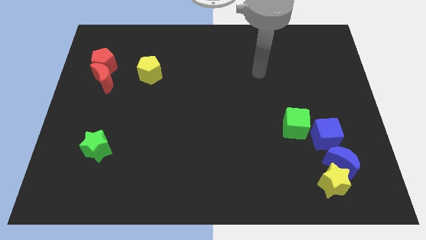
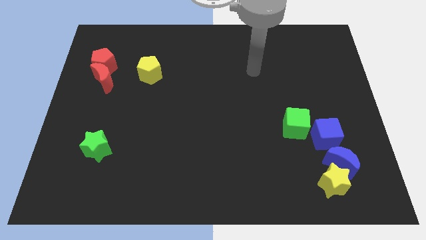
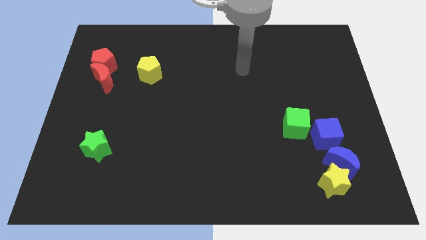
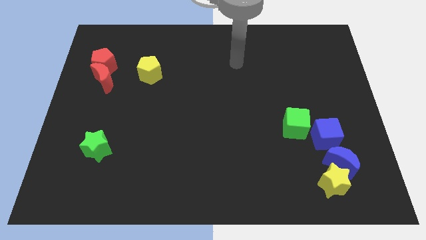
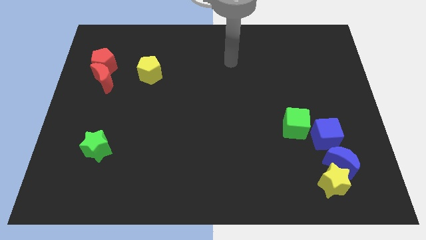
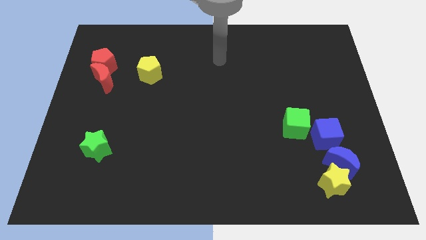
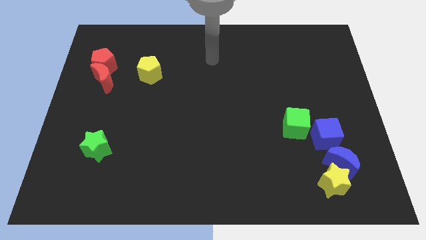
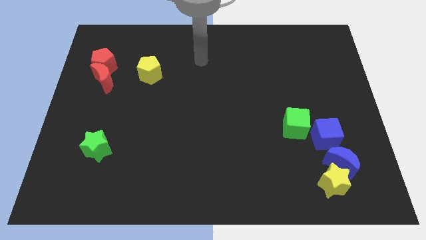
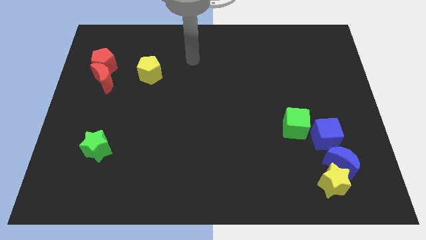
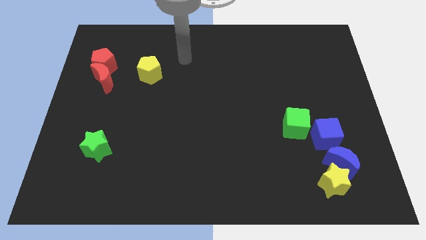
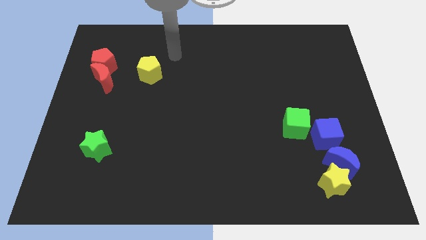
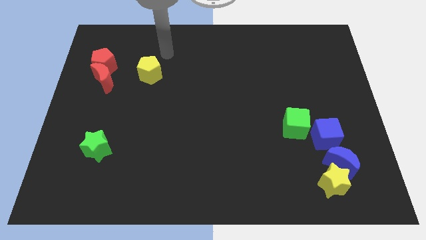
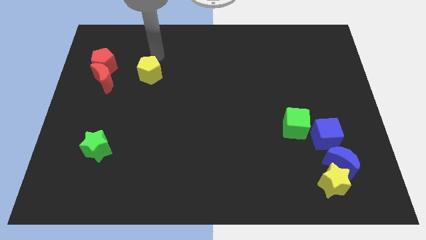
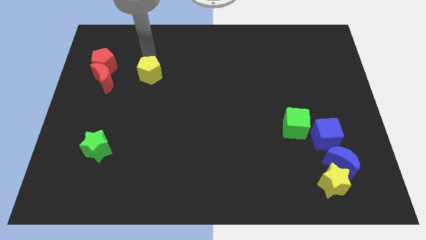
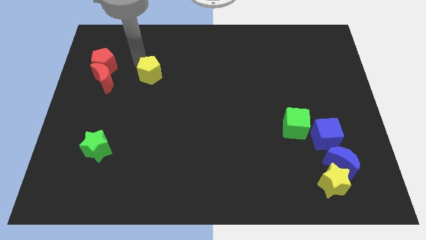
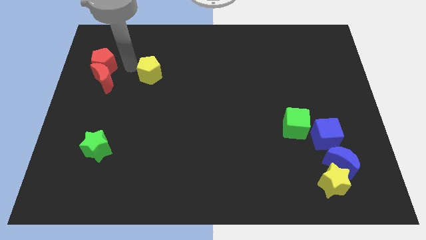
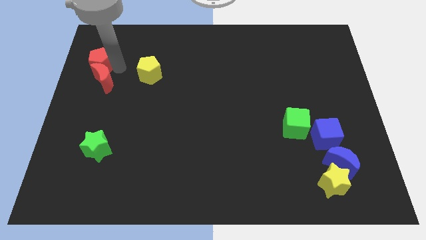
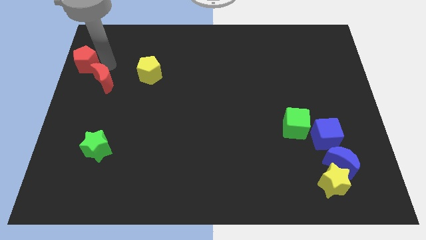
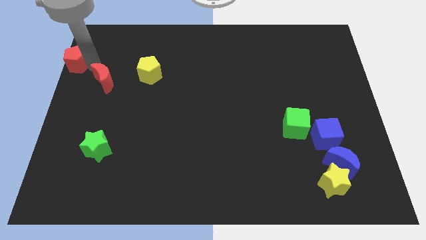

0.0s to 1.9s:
move the red moon away from the red pentagon

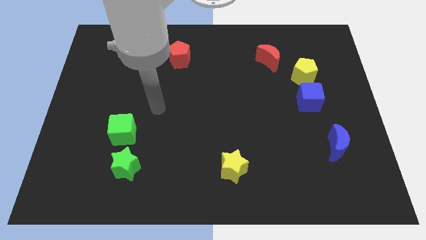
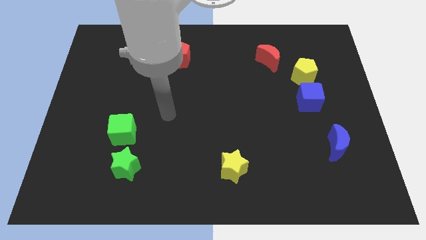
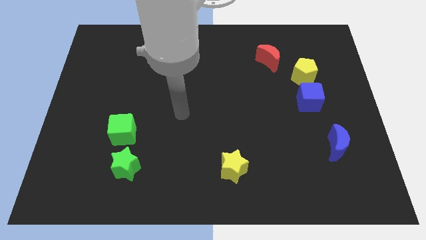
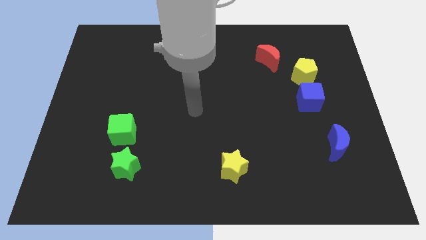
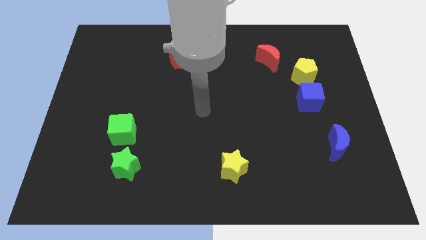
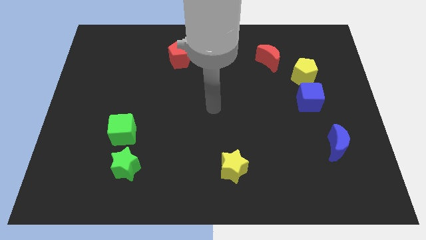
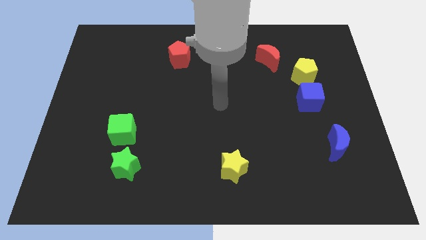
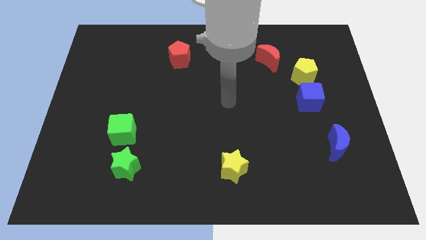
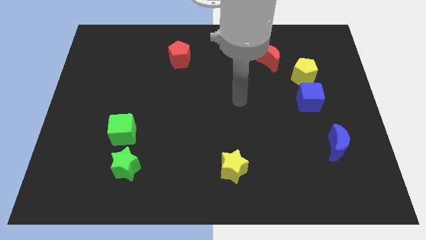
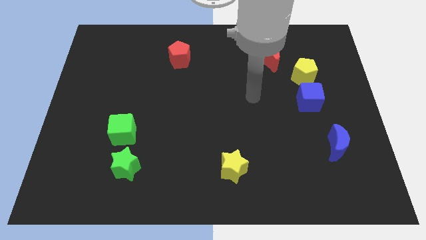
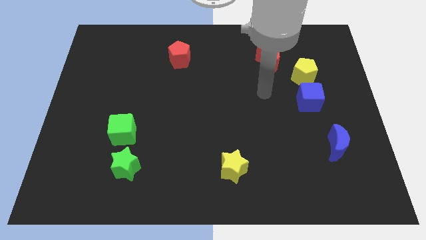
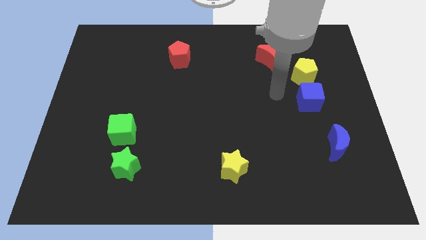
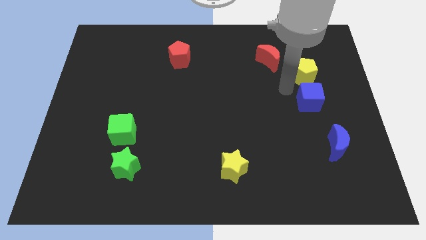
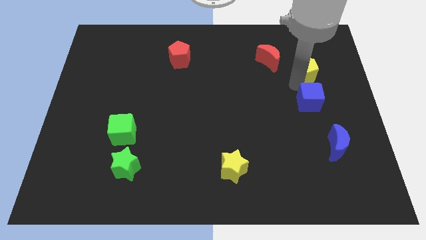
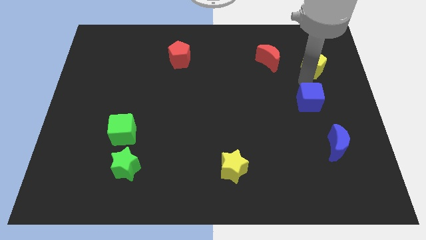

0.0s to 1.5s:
move the blue cube away from the yellow pentagon

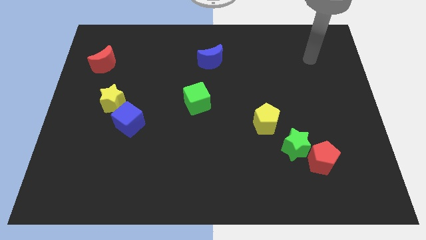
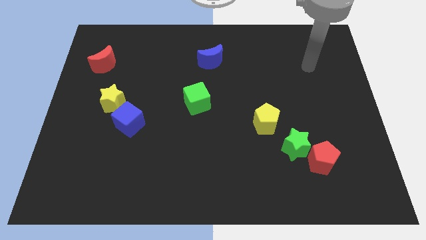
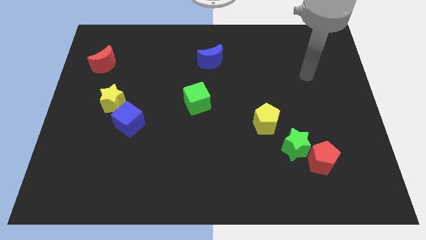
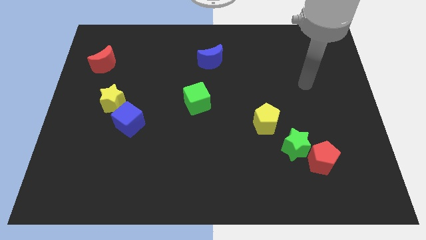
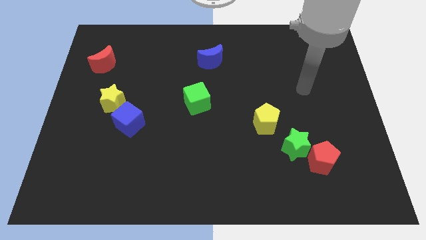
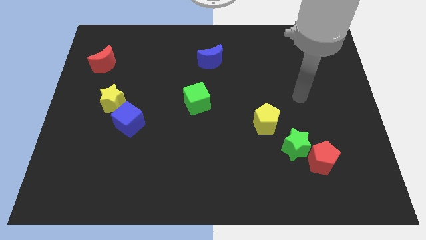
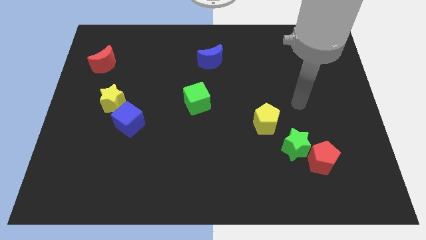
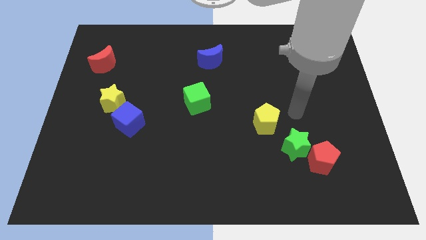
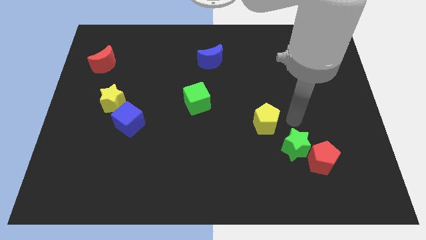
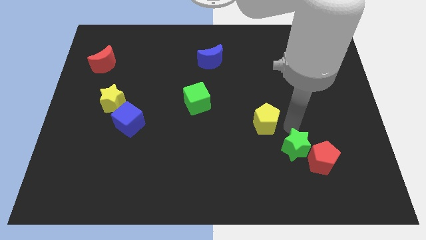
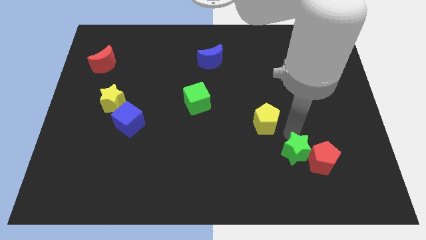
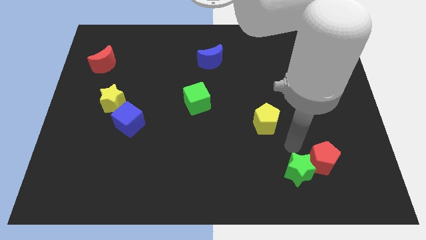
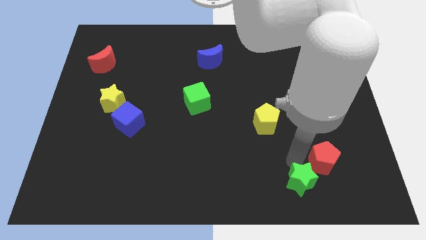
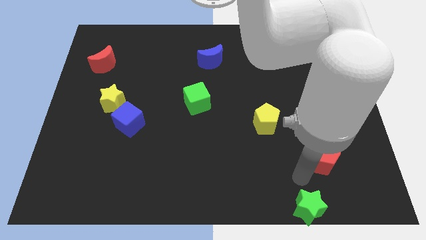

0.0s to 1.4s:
pull the red pentagon apart from the green star

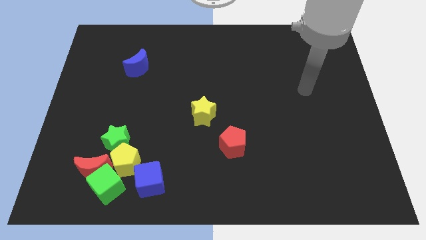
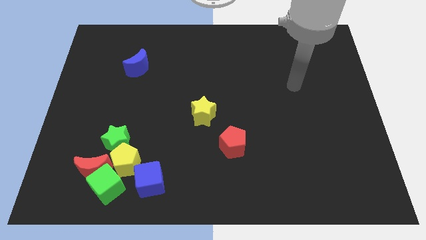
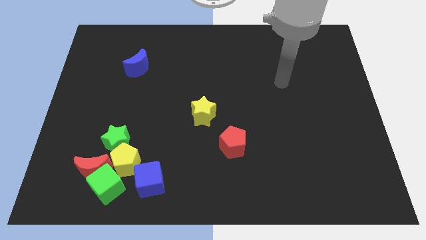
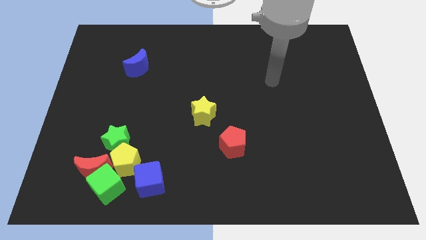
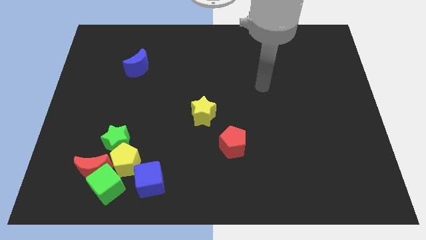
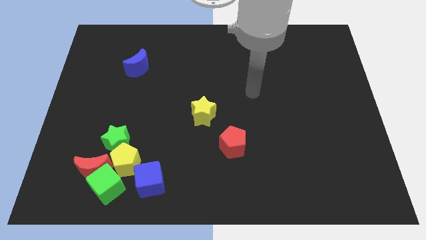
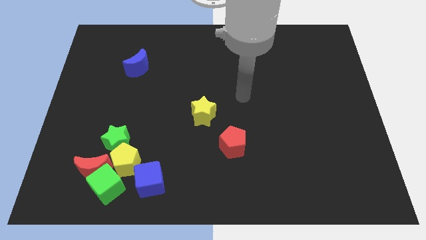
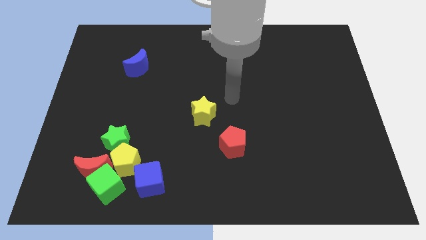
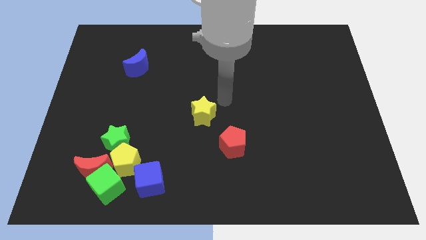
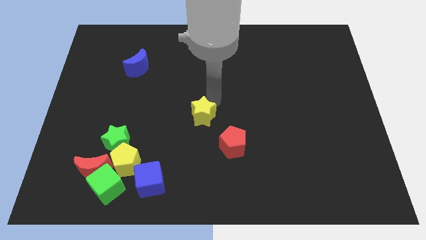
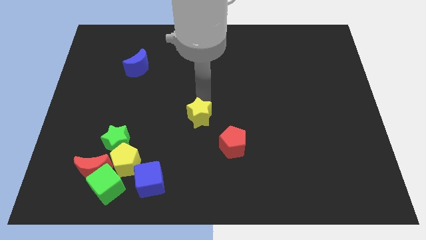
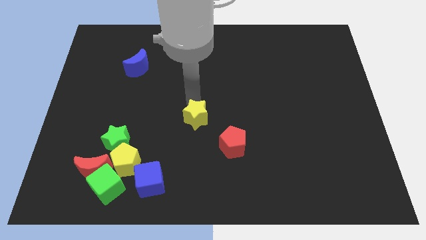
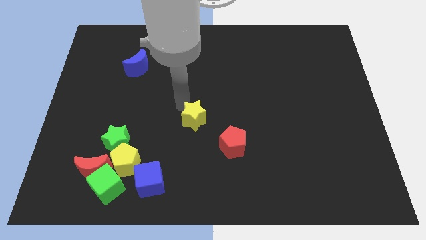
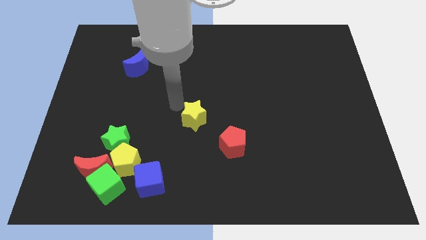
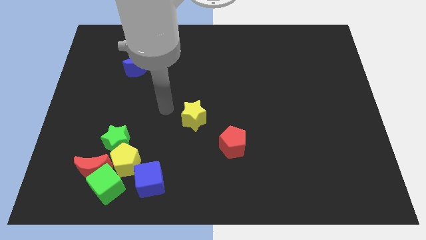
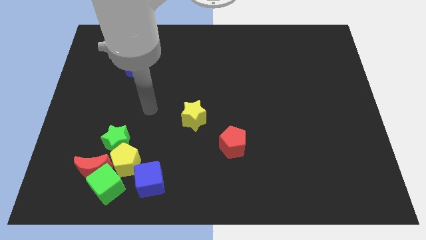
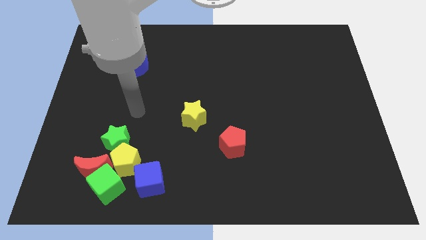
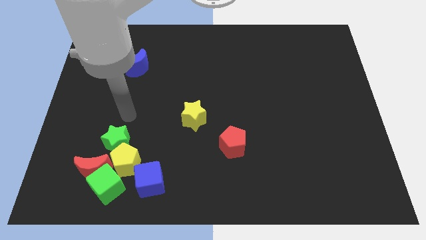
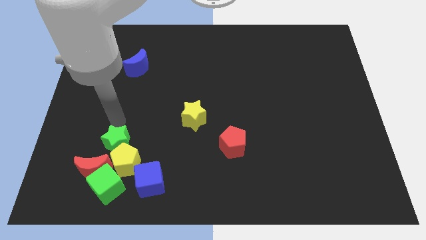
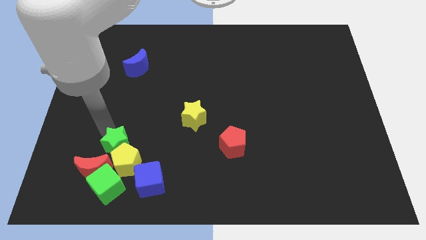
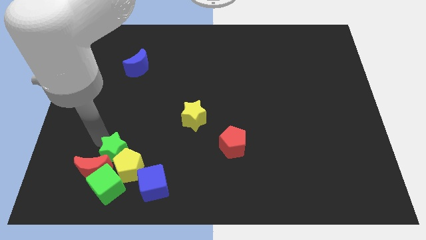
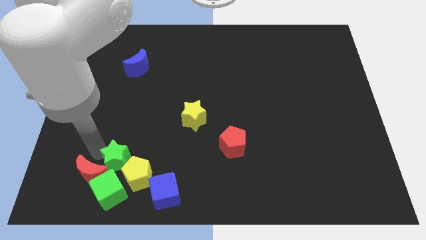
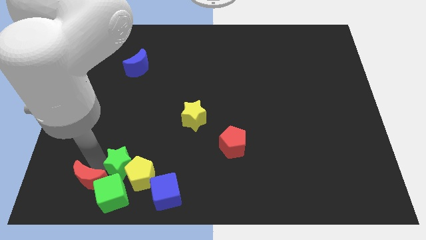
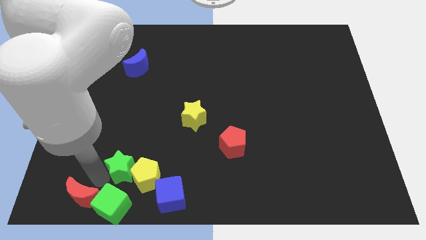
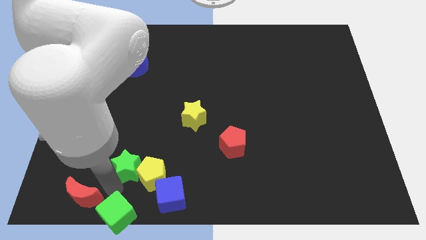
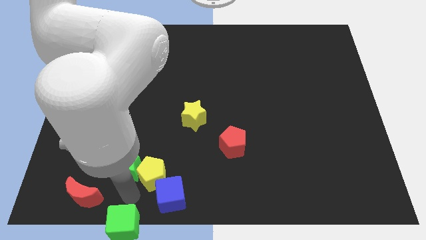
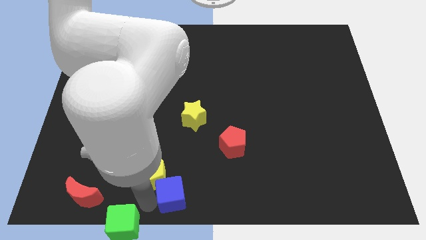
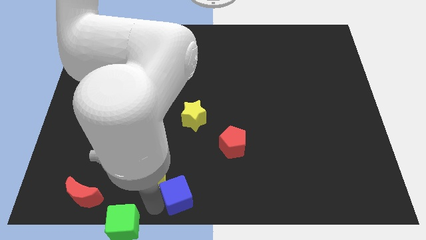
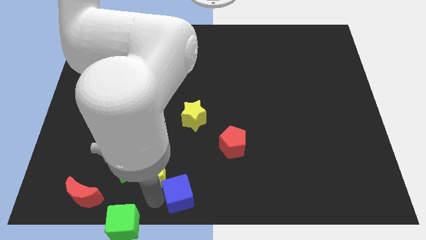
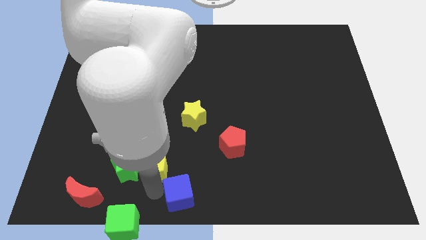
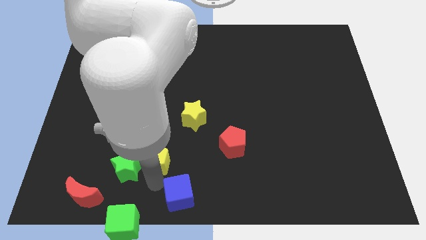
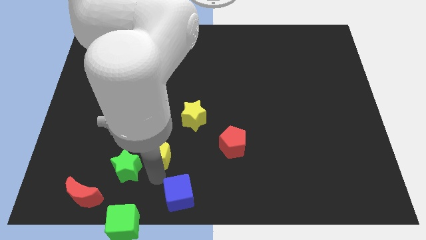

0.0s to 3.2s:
separate the yellow pentagon from the group

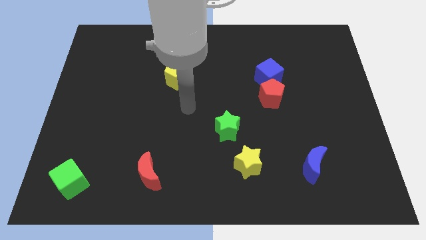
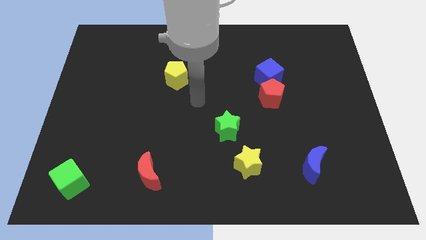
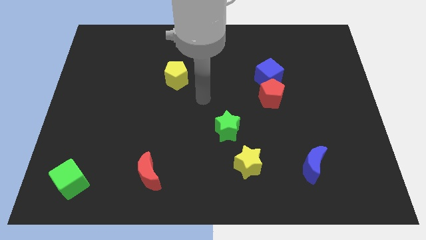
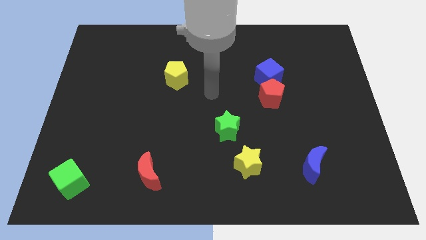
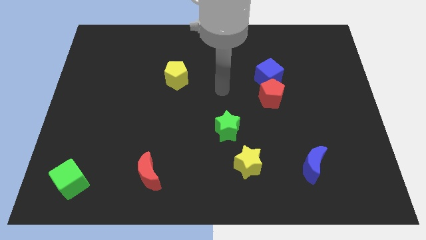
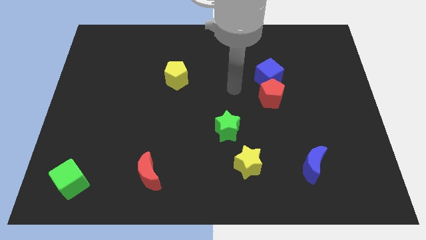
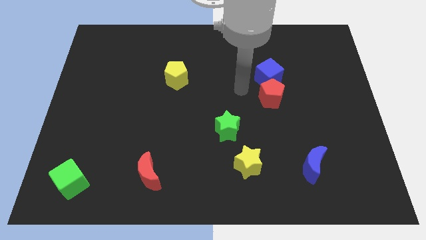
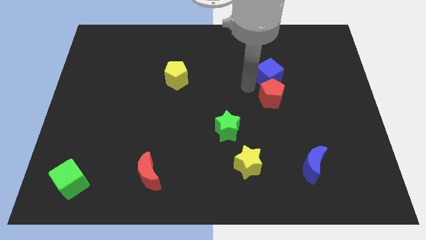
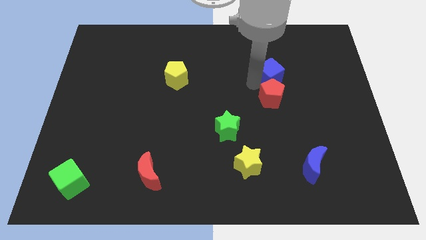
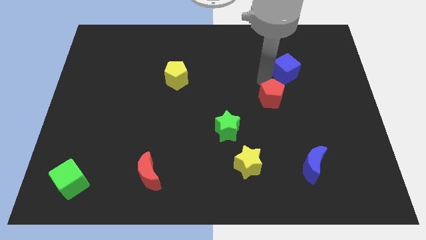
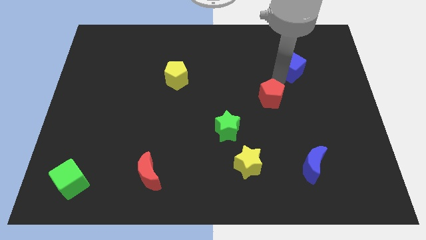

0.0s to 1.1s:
move the red pentagon away from the blue cube

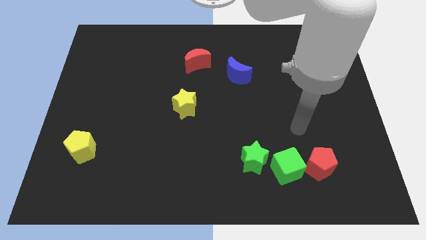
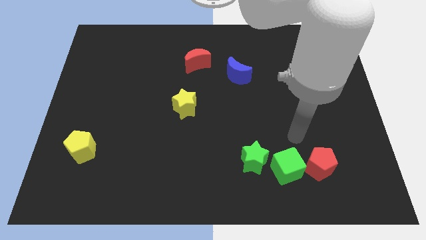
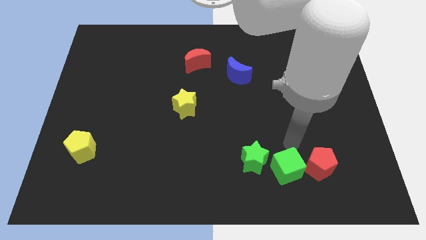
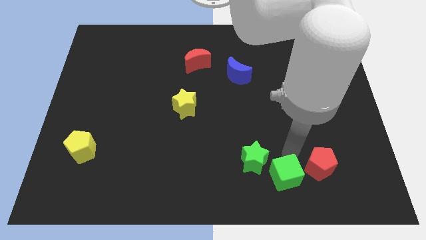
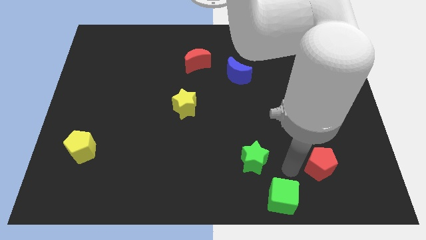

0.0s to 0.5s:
separate the red pentagon from the green cube
